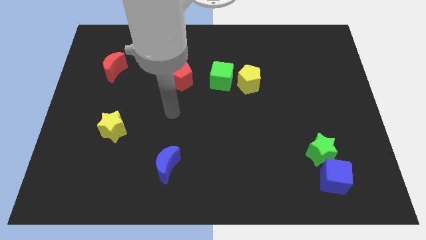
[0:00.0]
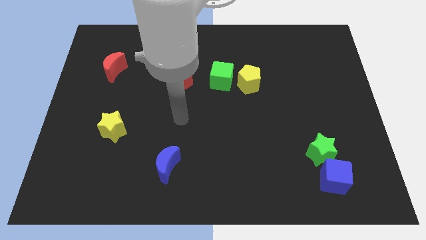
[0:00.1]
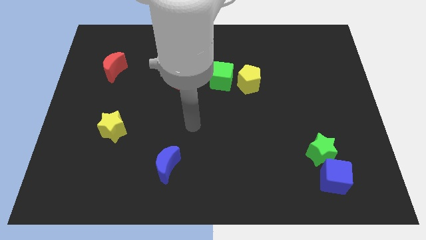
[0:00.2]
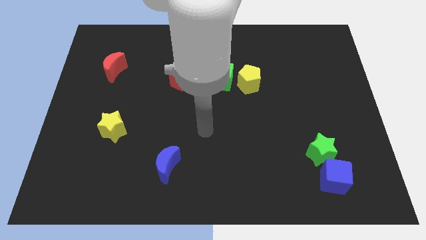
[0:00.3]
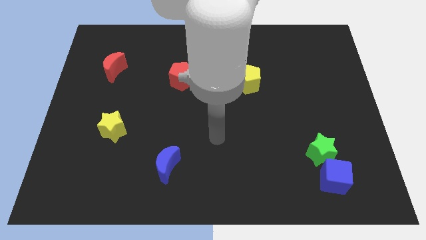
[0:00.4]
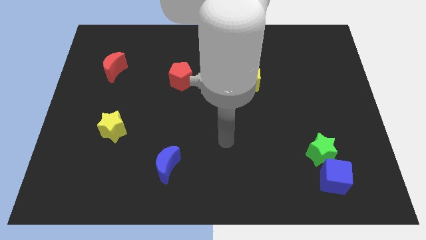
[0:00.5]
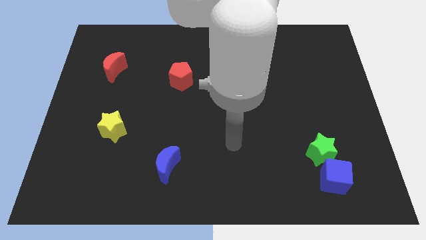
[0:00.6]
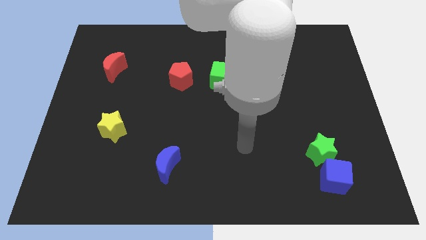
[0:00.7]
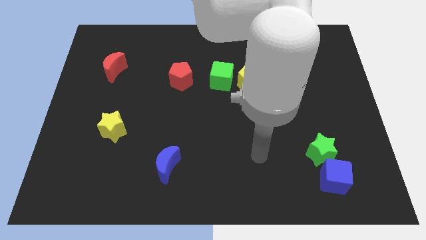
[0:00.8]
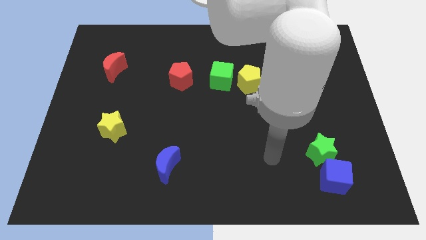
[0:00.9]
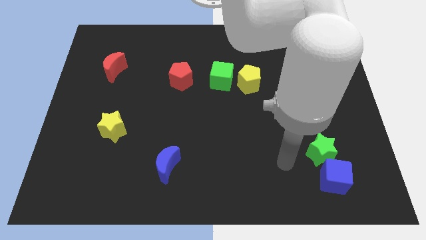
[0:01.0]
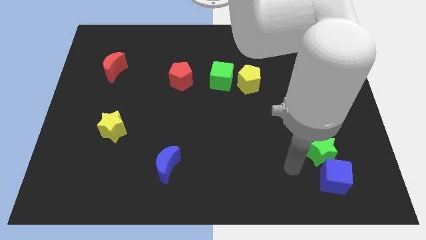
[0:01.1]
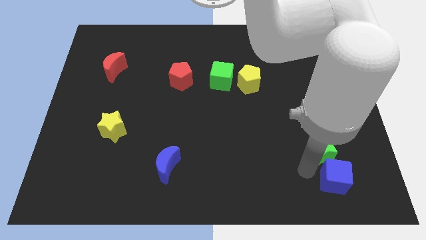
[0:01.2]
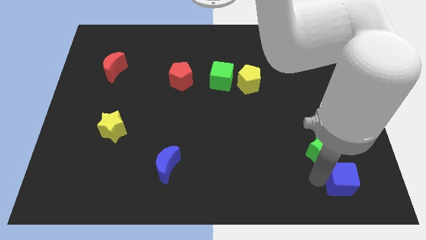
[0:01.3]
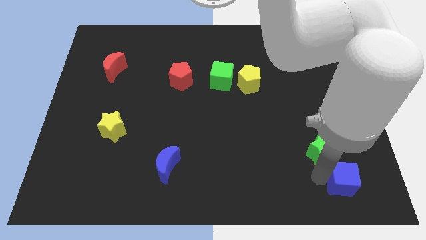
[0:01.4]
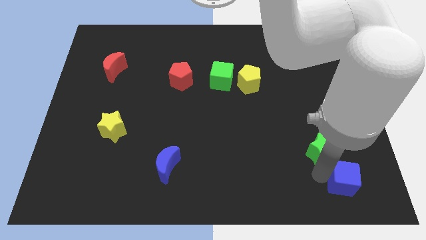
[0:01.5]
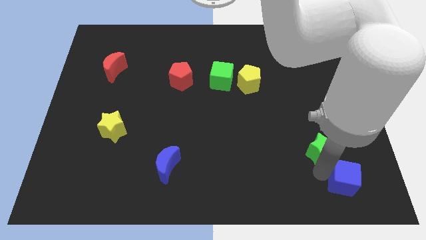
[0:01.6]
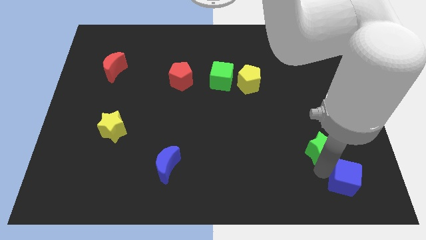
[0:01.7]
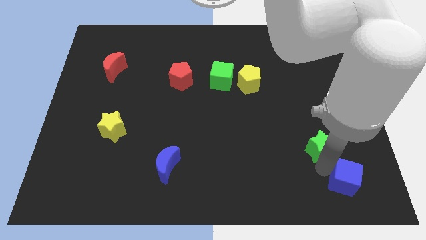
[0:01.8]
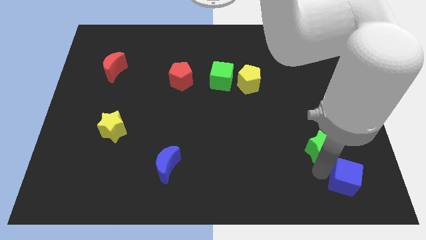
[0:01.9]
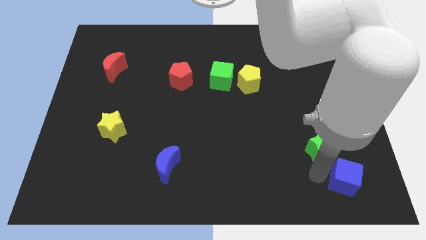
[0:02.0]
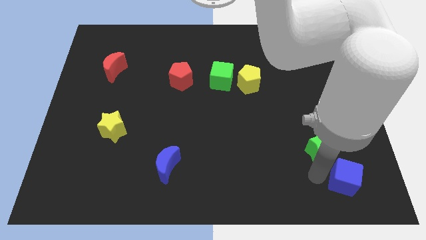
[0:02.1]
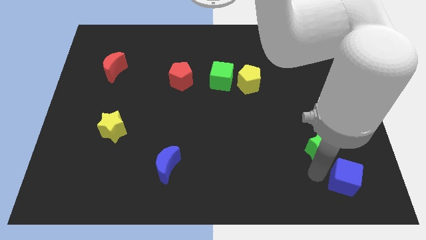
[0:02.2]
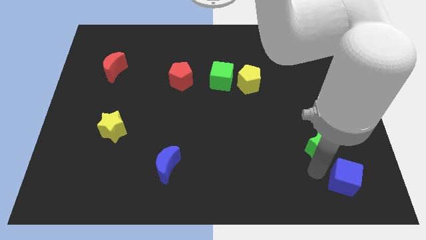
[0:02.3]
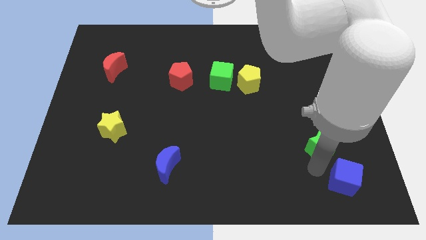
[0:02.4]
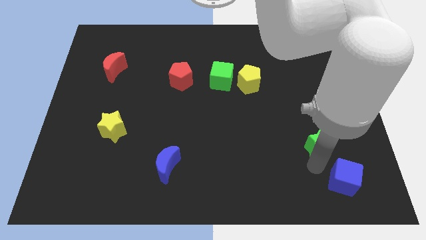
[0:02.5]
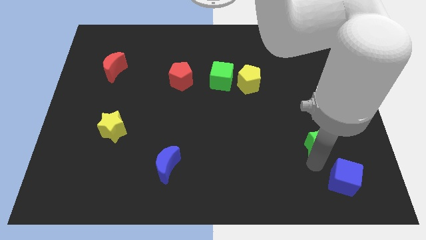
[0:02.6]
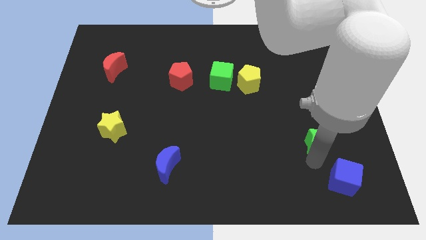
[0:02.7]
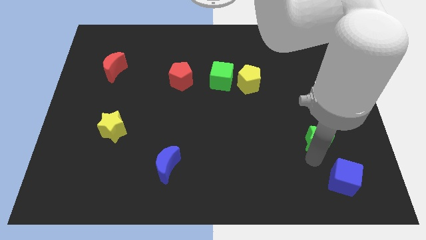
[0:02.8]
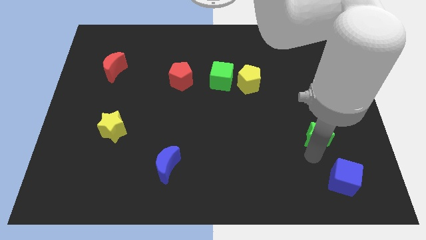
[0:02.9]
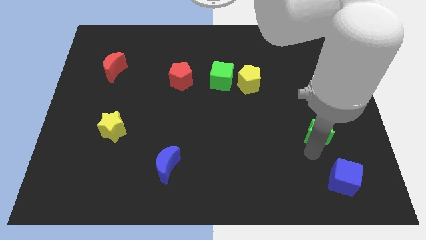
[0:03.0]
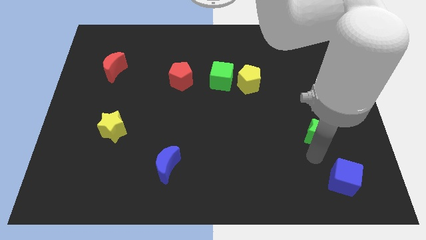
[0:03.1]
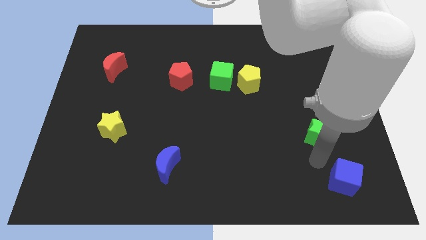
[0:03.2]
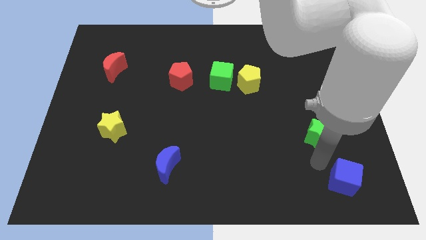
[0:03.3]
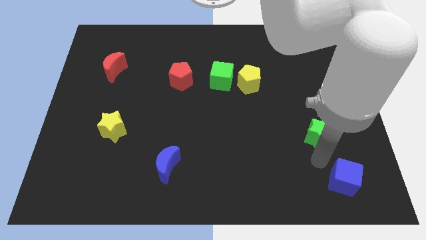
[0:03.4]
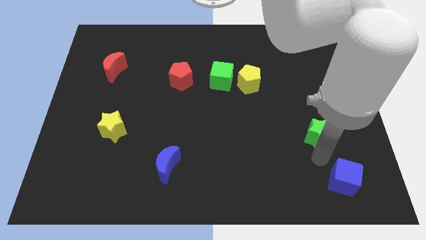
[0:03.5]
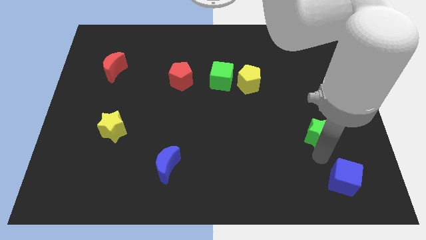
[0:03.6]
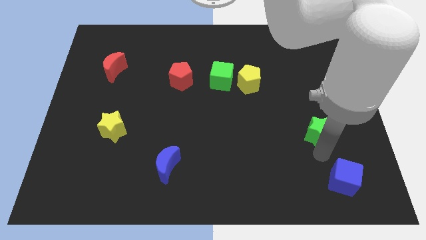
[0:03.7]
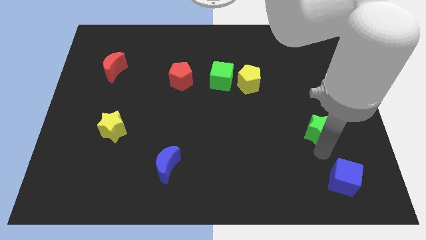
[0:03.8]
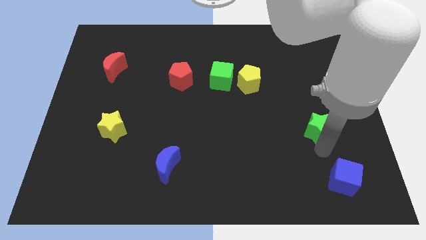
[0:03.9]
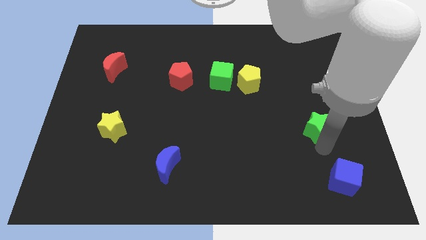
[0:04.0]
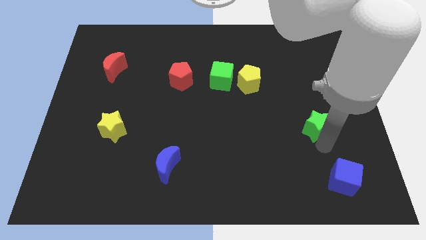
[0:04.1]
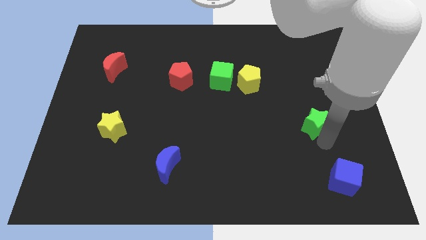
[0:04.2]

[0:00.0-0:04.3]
slightly move the green star up

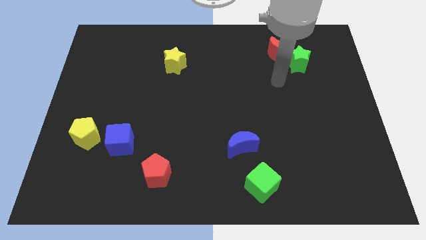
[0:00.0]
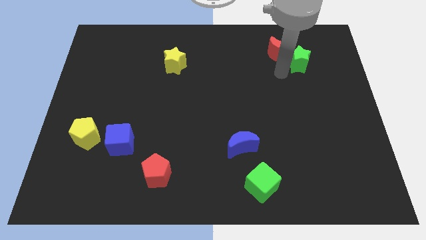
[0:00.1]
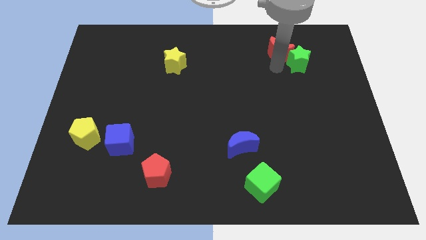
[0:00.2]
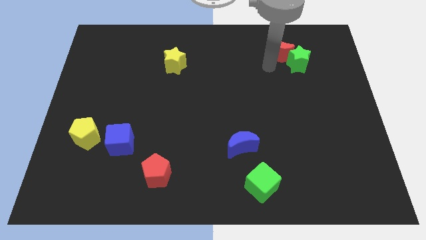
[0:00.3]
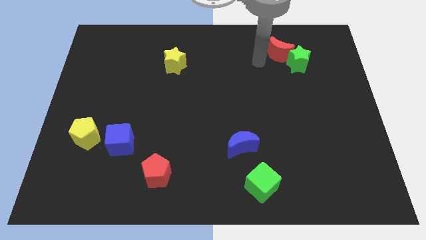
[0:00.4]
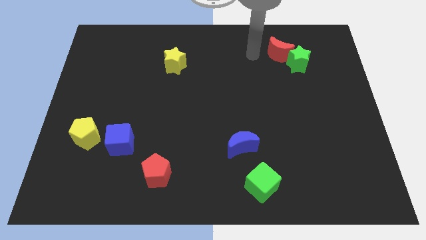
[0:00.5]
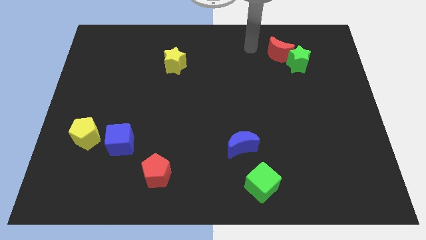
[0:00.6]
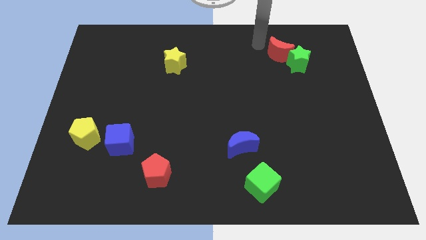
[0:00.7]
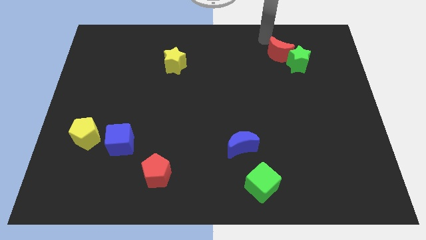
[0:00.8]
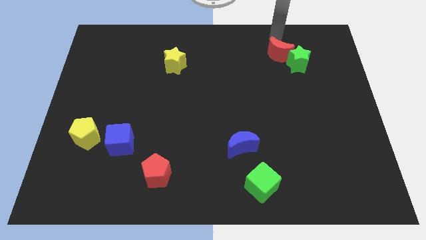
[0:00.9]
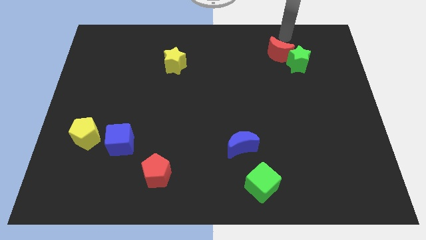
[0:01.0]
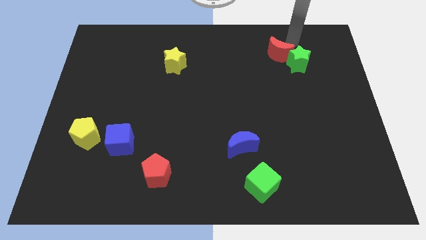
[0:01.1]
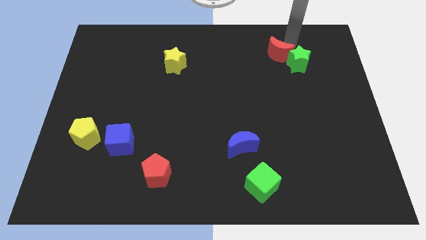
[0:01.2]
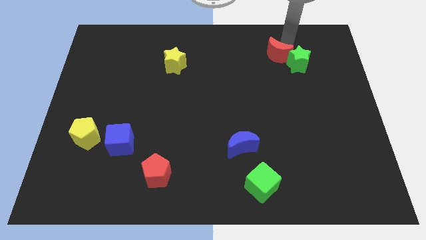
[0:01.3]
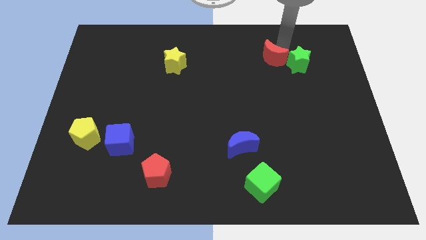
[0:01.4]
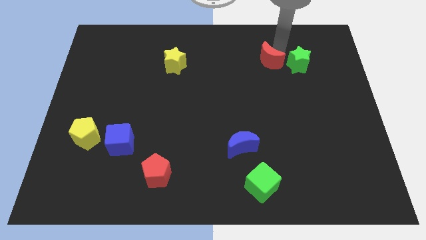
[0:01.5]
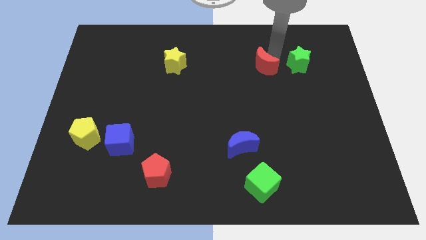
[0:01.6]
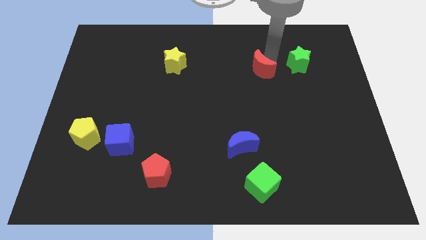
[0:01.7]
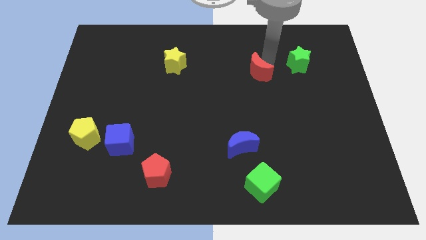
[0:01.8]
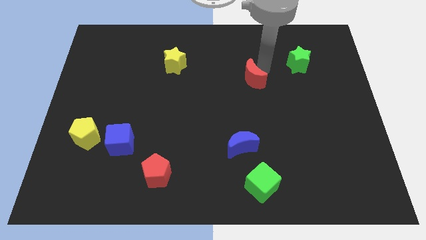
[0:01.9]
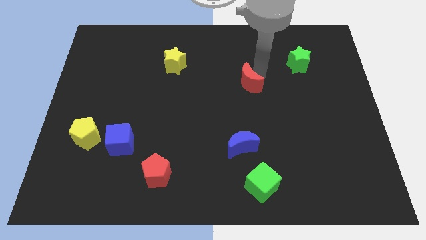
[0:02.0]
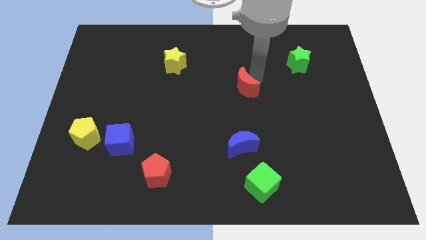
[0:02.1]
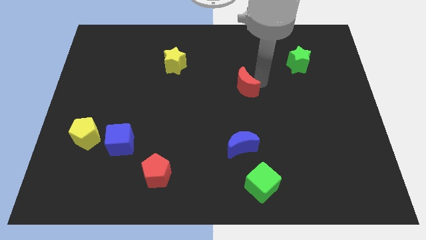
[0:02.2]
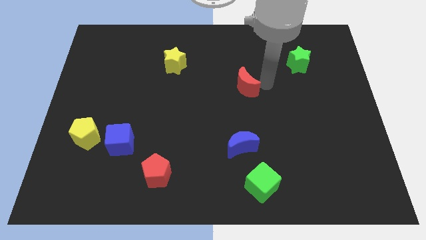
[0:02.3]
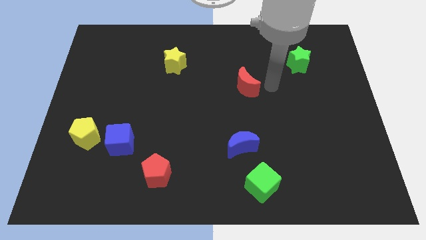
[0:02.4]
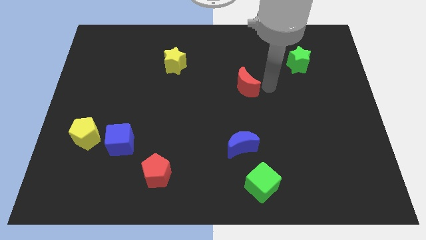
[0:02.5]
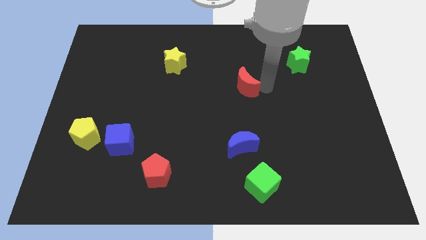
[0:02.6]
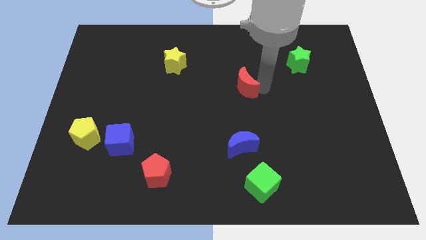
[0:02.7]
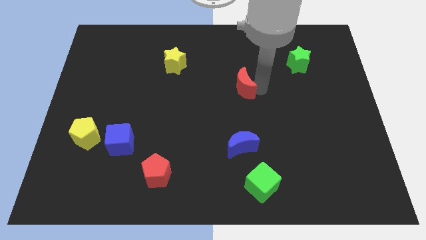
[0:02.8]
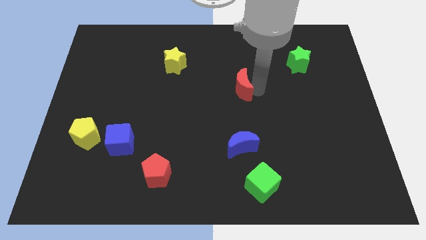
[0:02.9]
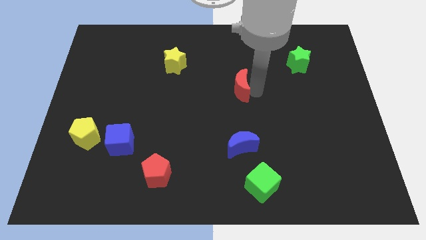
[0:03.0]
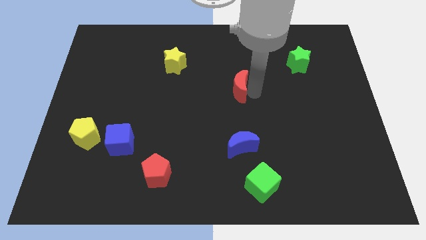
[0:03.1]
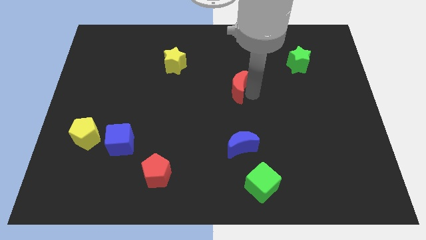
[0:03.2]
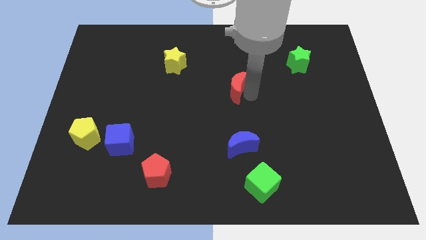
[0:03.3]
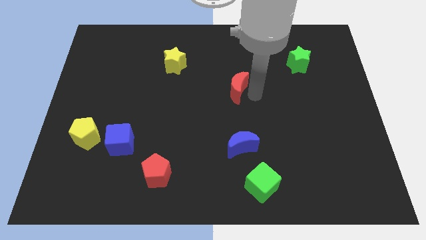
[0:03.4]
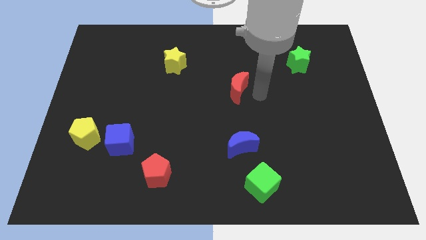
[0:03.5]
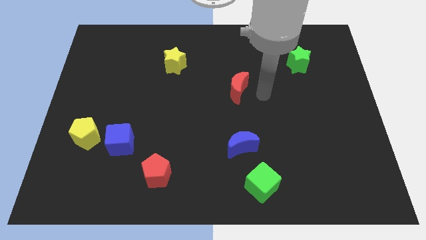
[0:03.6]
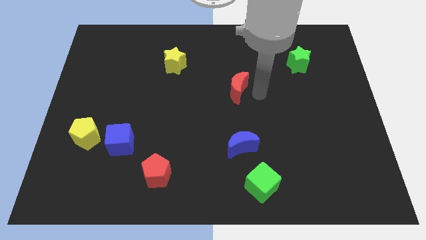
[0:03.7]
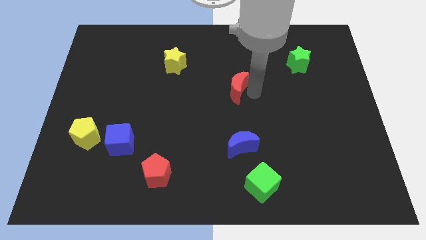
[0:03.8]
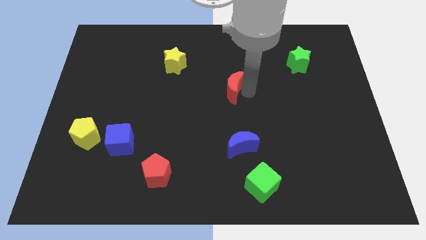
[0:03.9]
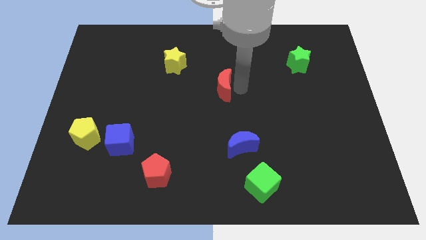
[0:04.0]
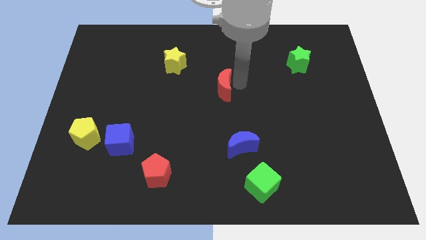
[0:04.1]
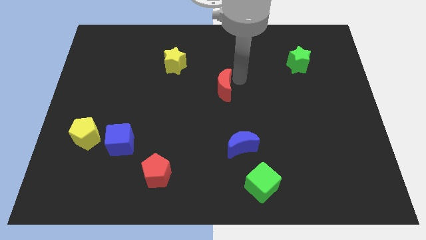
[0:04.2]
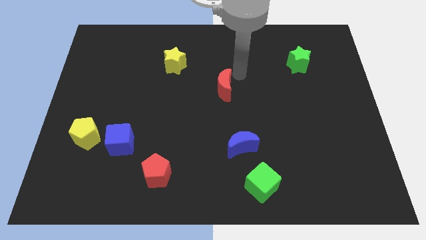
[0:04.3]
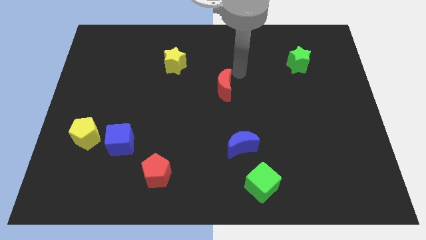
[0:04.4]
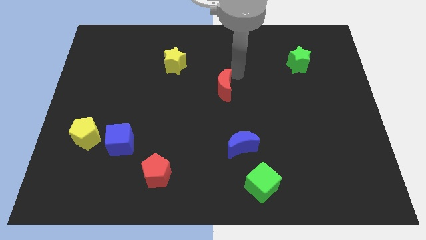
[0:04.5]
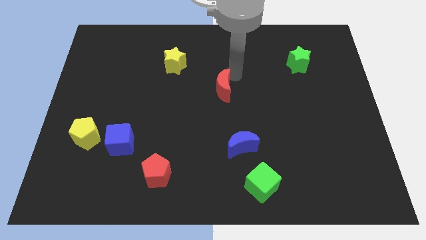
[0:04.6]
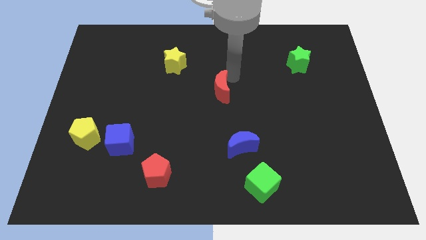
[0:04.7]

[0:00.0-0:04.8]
move the red moon diagonally down and left
